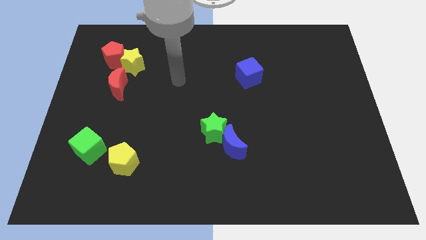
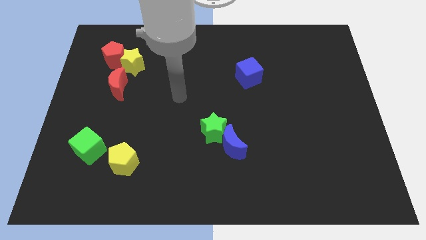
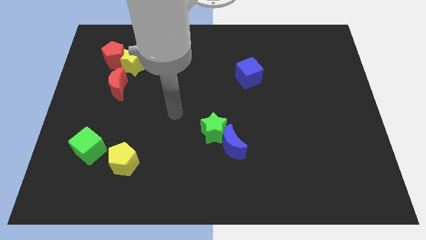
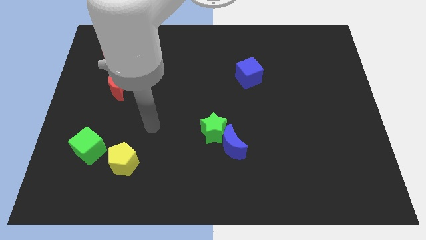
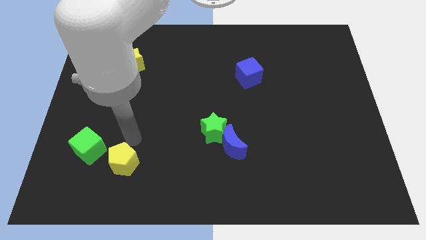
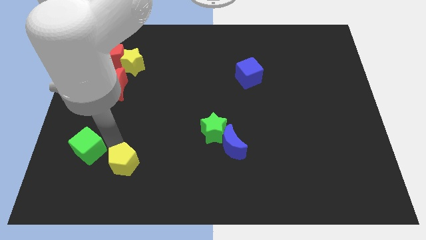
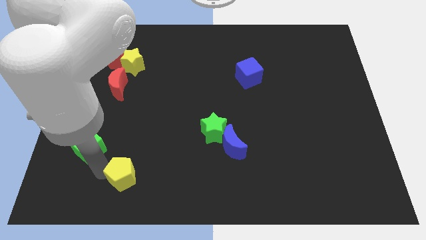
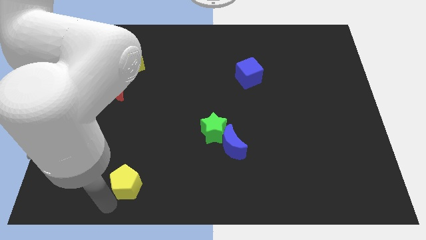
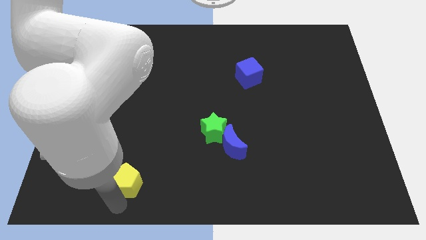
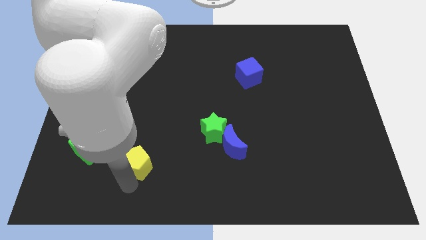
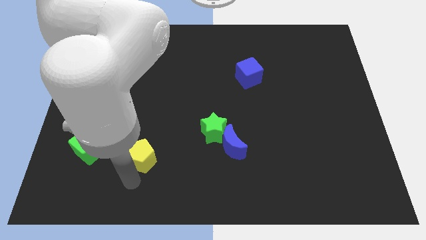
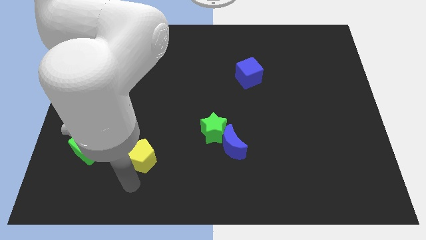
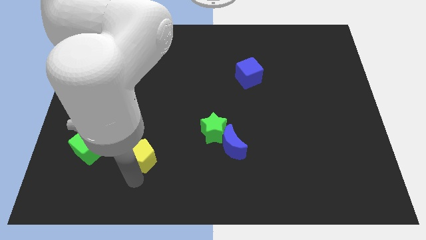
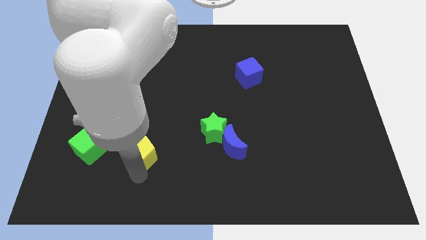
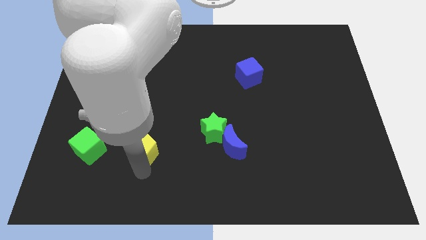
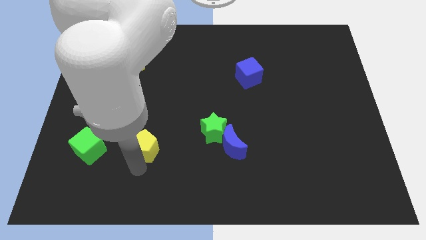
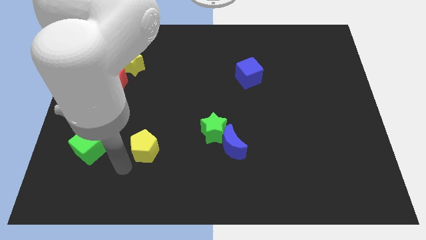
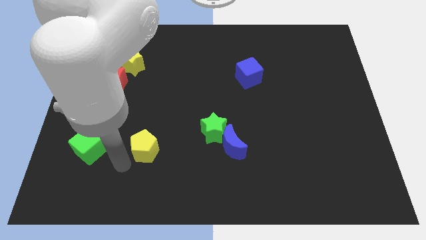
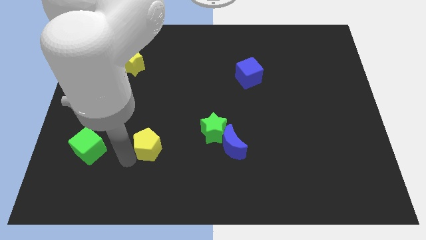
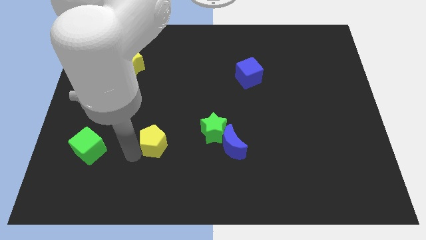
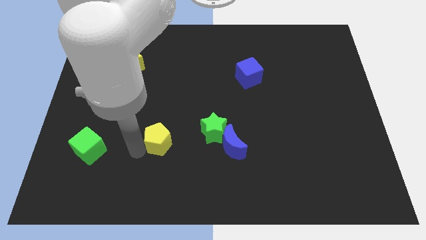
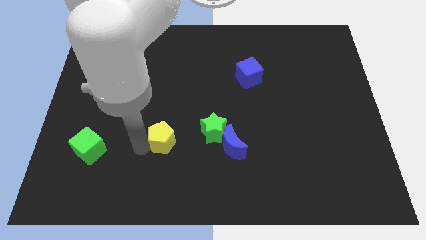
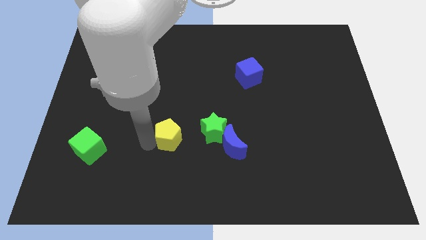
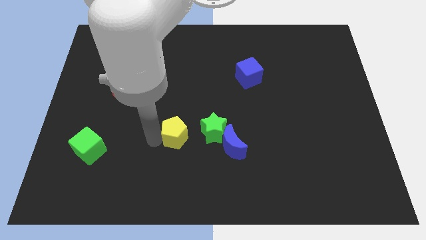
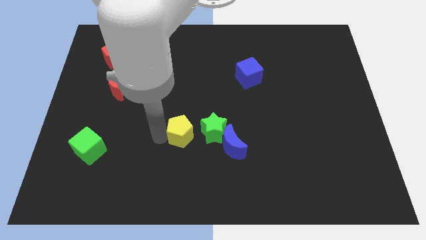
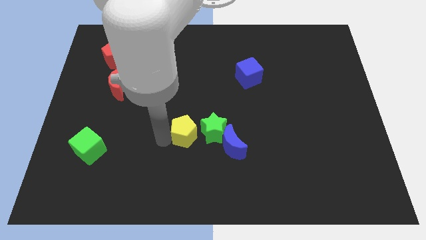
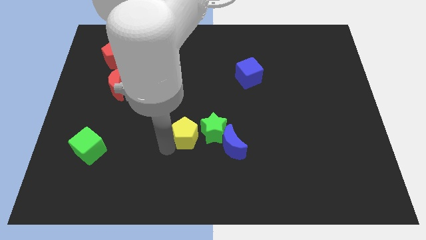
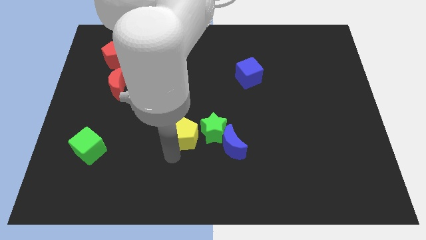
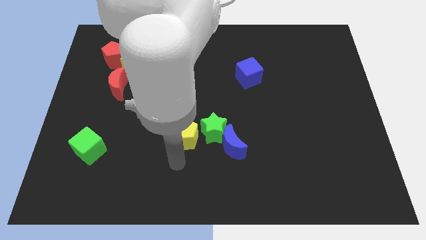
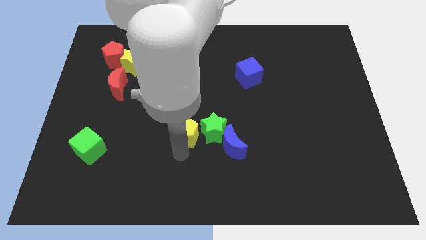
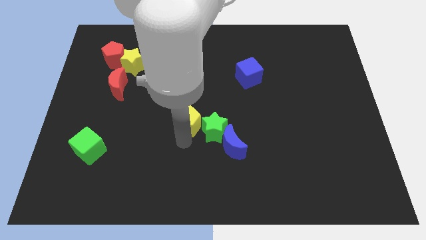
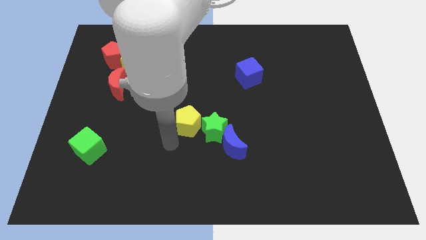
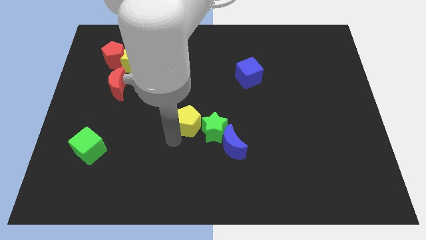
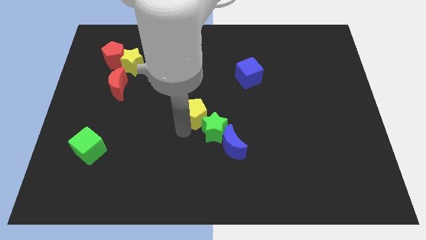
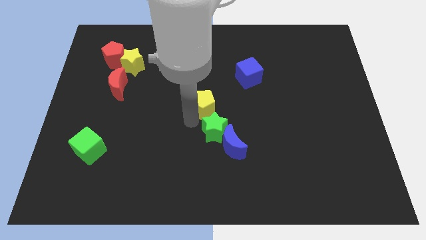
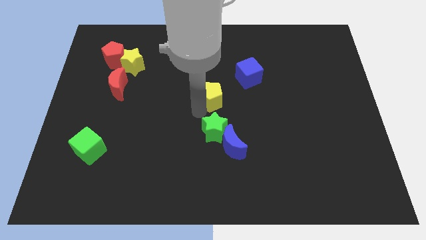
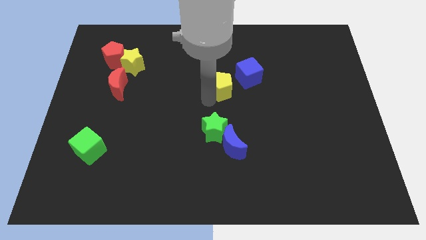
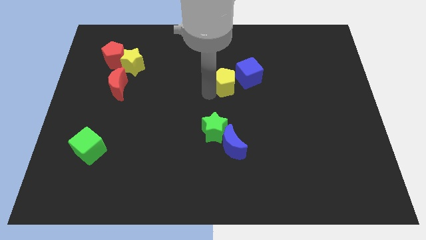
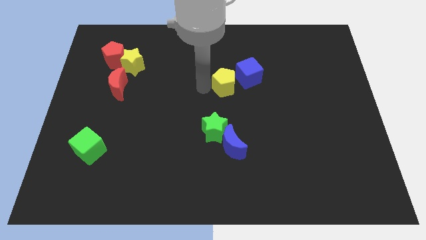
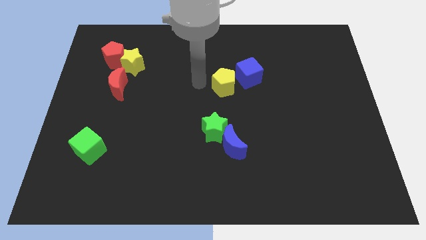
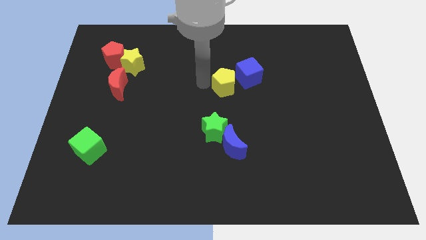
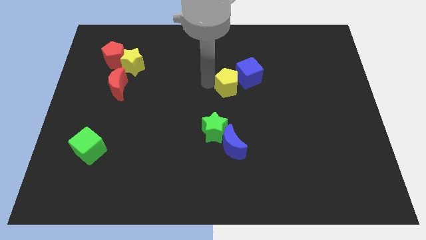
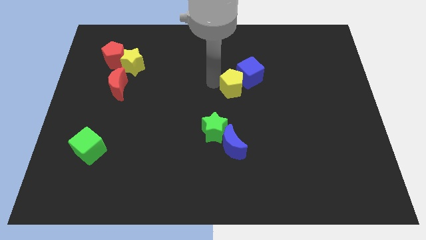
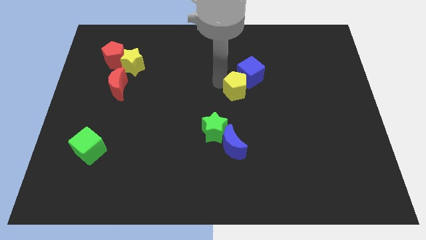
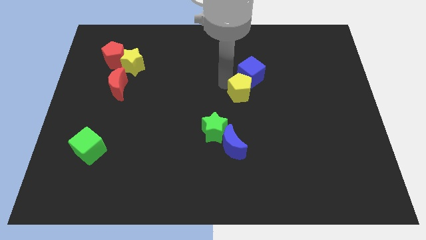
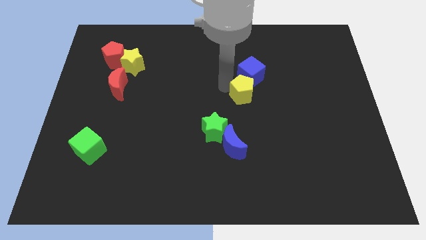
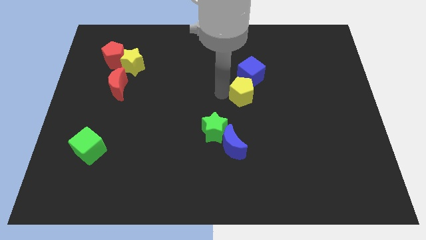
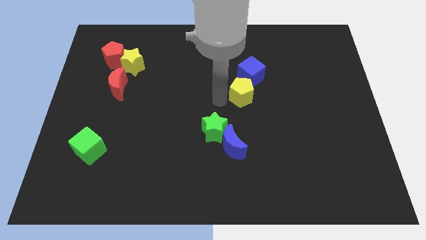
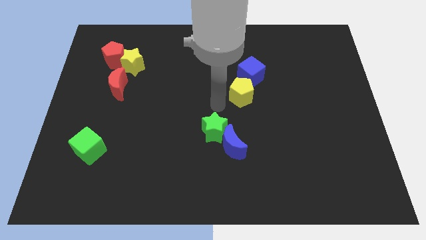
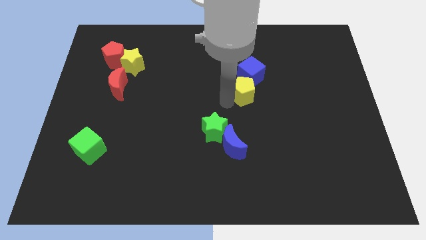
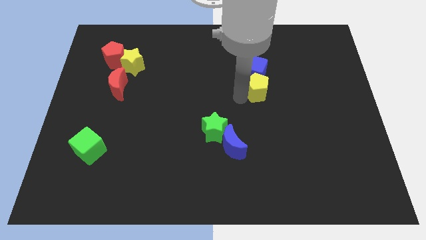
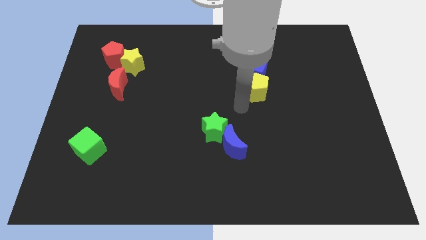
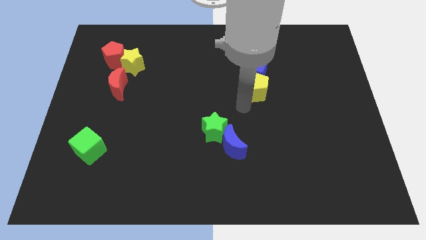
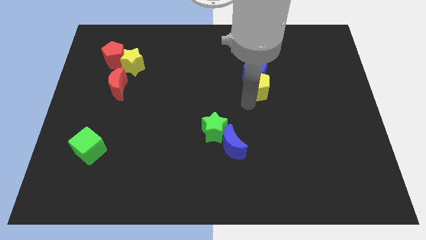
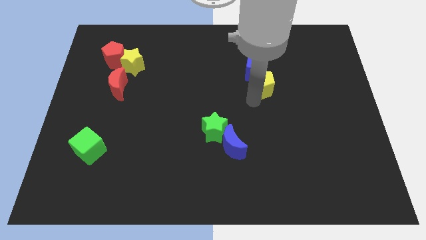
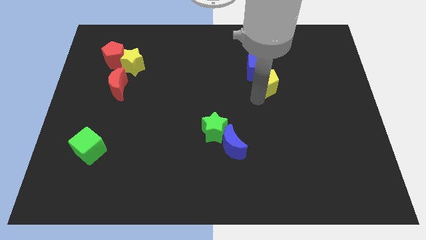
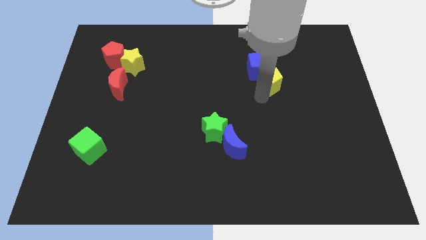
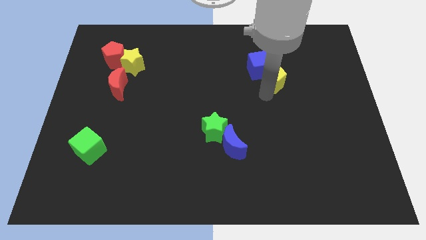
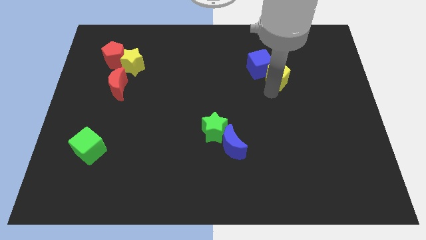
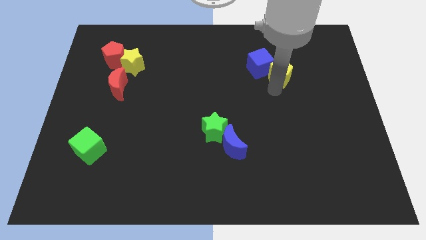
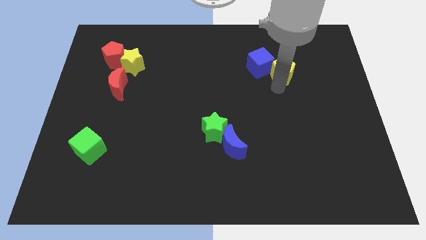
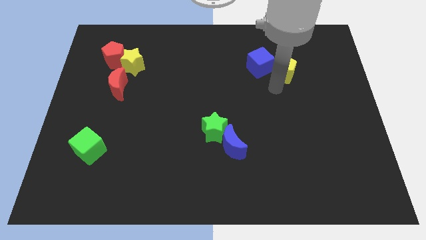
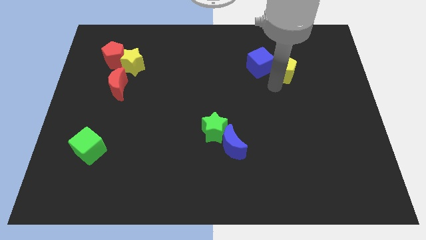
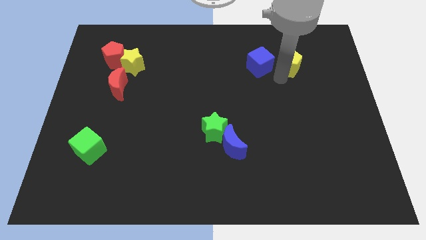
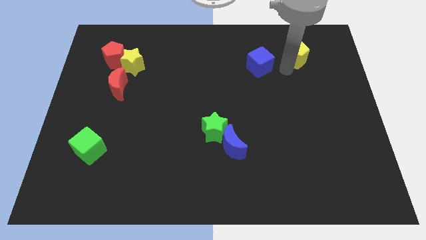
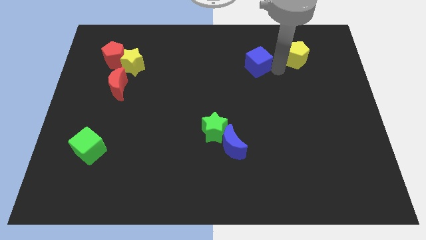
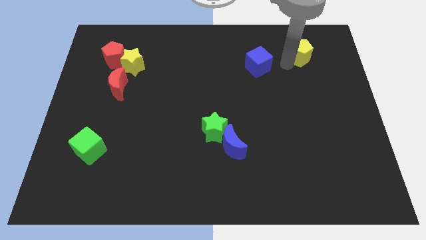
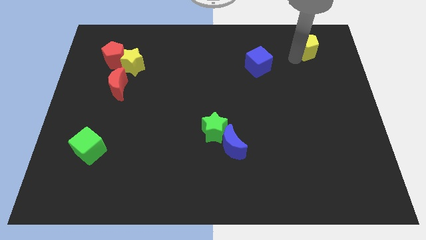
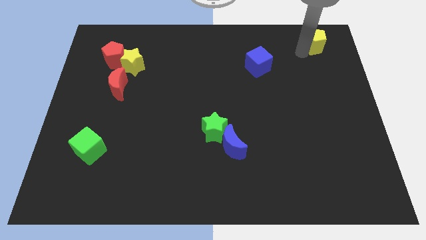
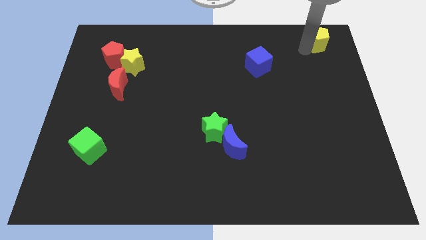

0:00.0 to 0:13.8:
push the yellow pentagon to the top right

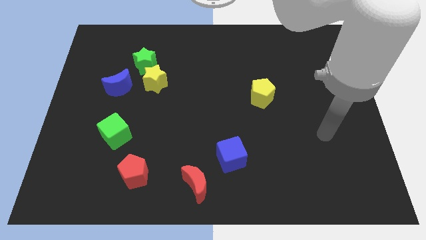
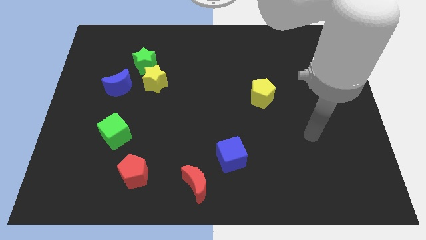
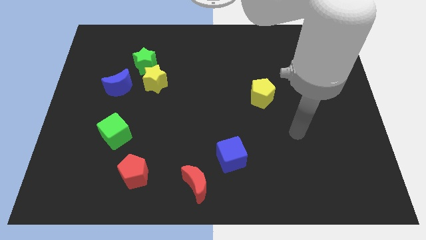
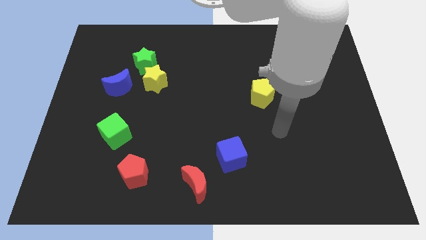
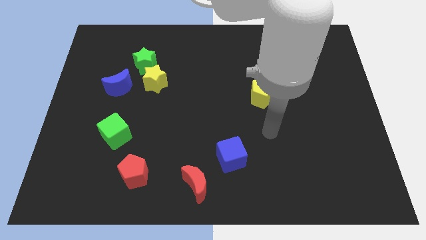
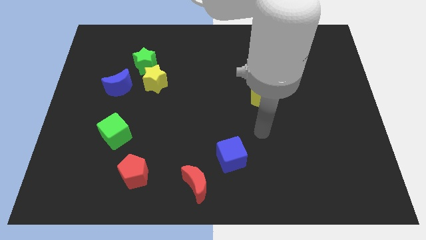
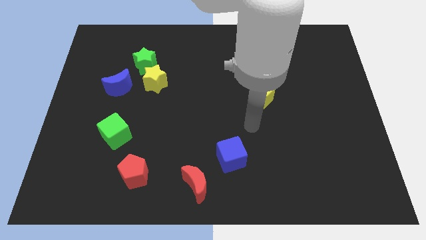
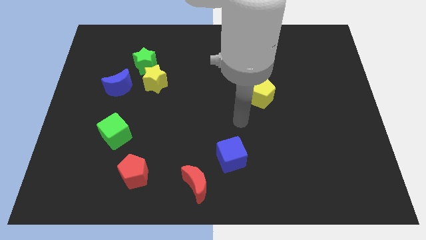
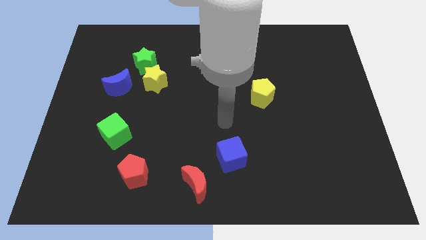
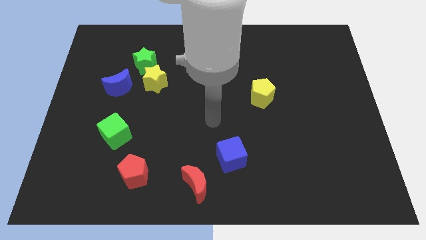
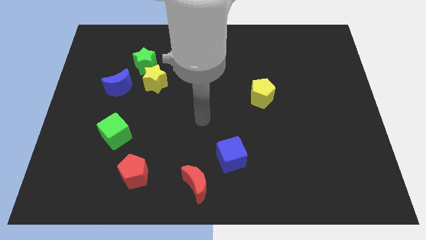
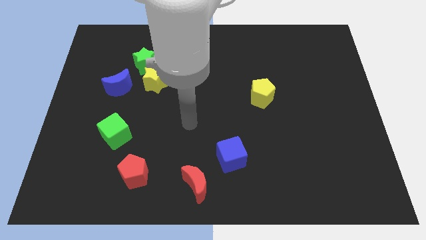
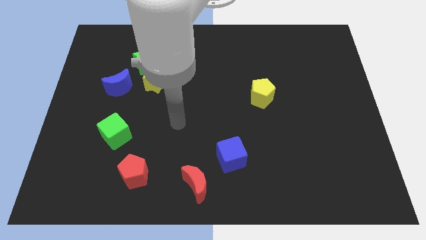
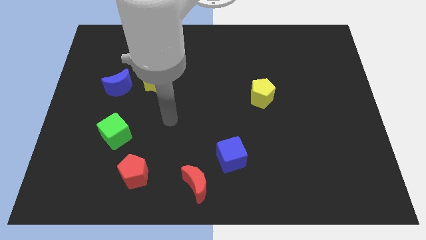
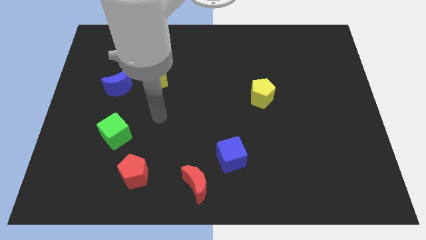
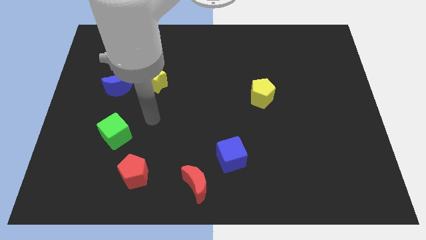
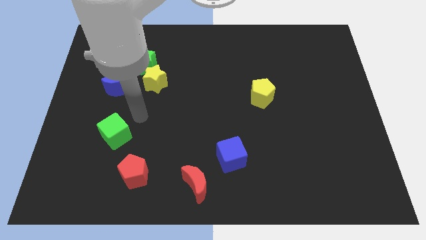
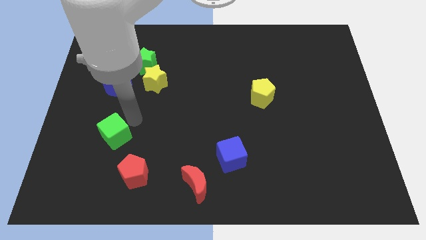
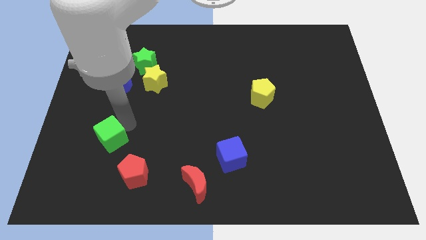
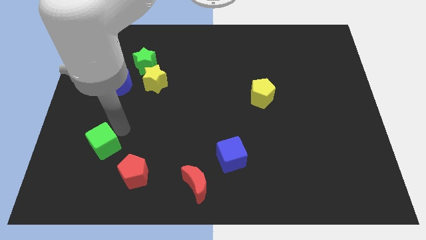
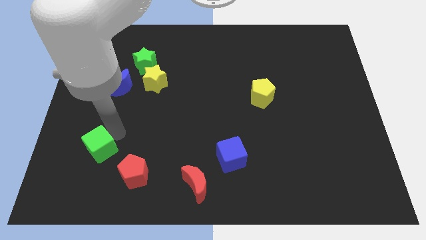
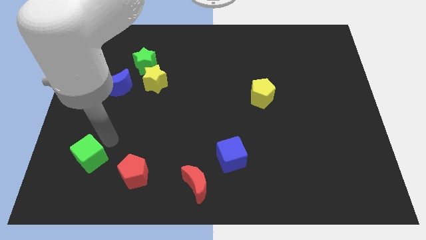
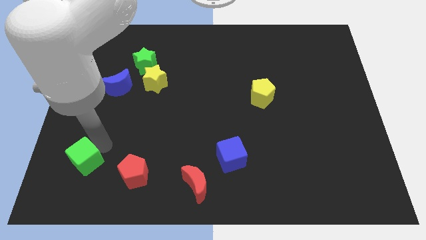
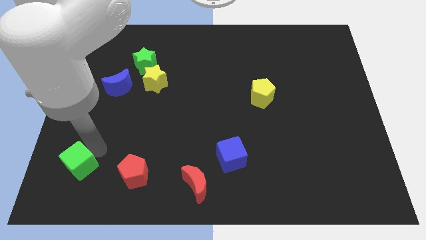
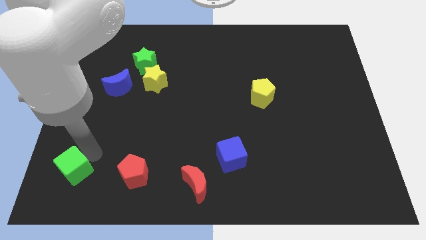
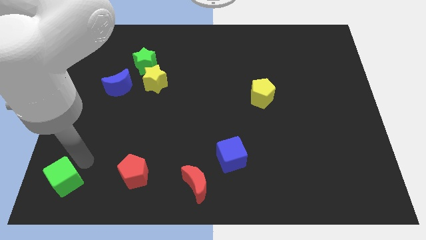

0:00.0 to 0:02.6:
move the green cube to the bottom left of the board
